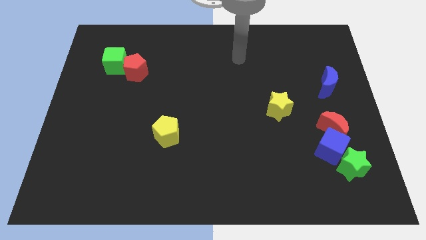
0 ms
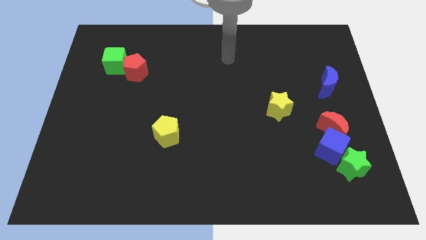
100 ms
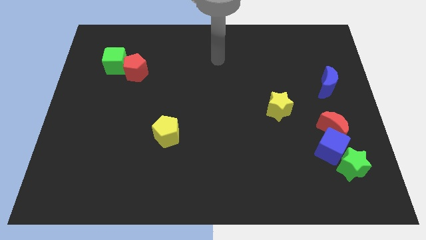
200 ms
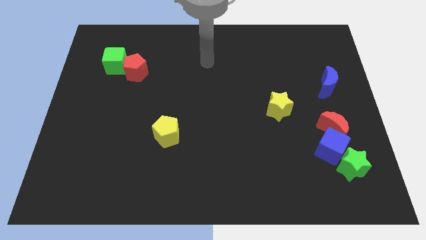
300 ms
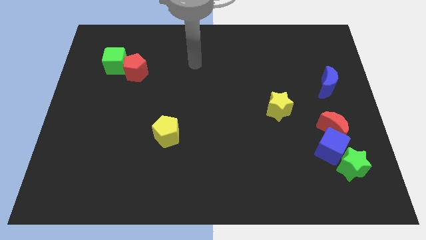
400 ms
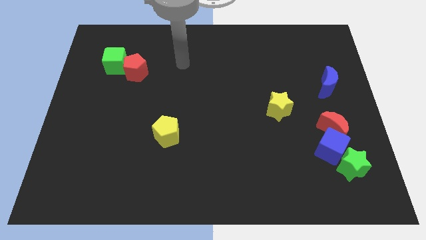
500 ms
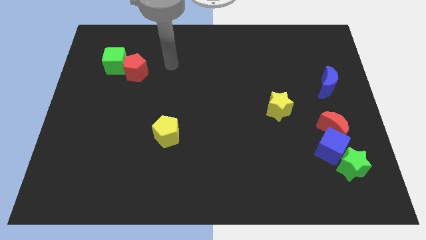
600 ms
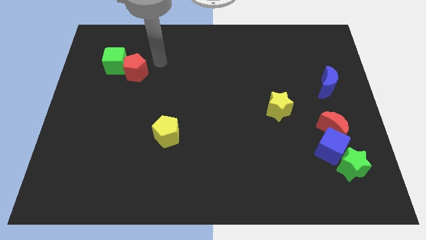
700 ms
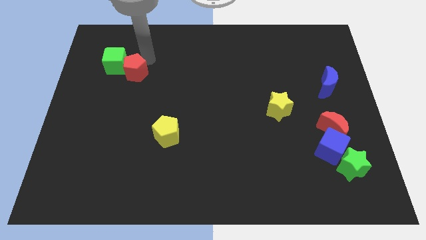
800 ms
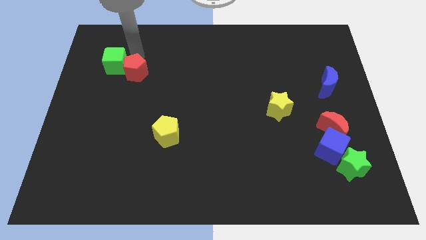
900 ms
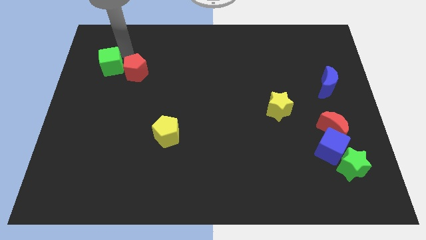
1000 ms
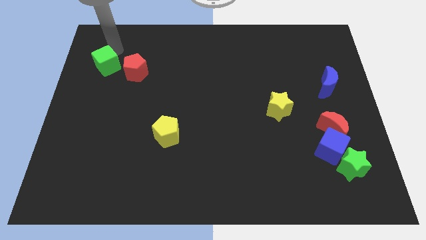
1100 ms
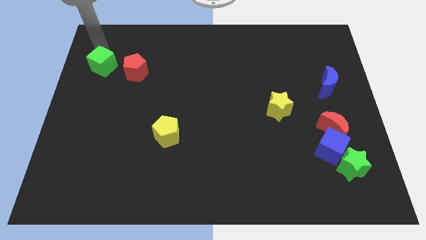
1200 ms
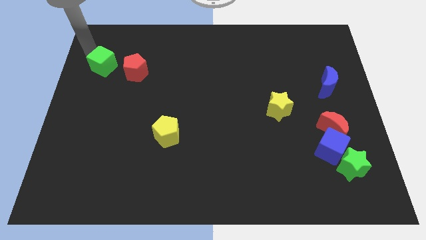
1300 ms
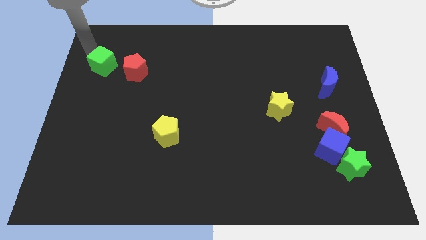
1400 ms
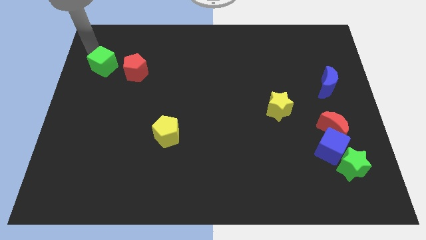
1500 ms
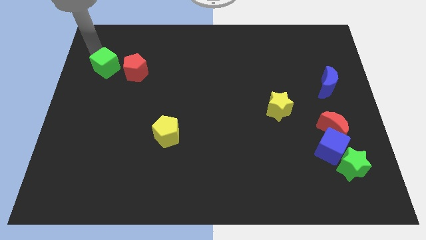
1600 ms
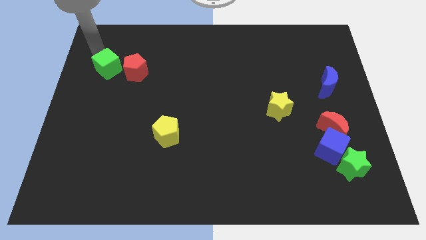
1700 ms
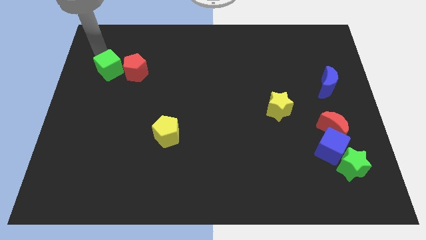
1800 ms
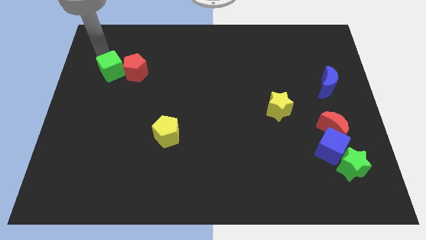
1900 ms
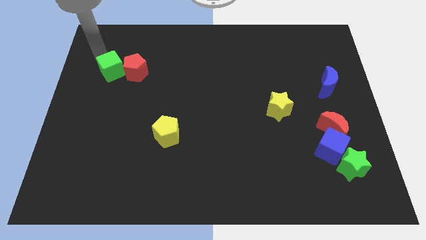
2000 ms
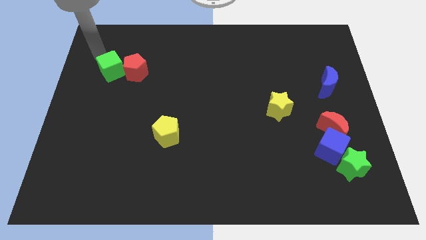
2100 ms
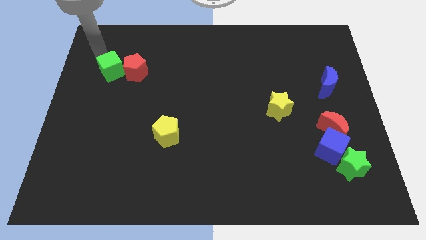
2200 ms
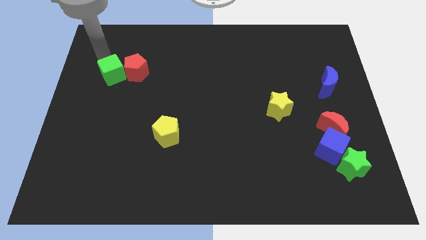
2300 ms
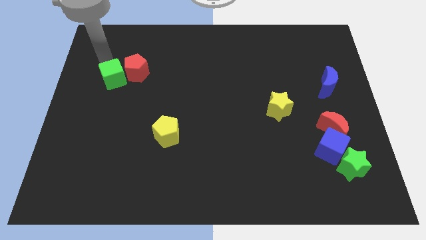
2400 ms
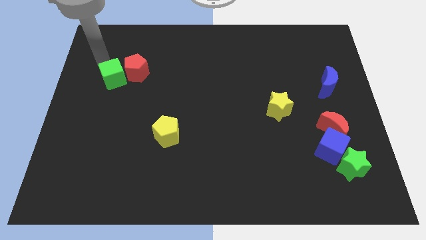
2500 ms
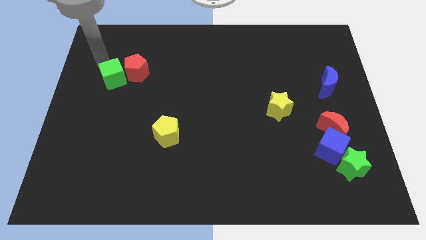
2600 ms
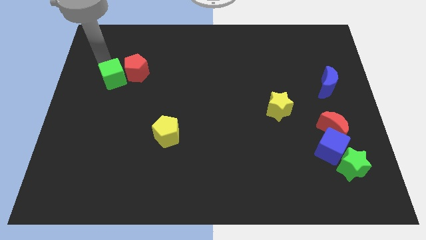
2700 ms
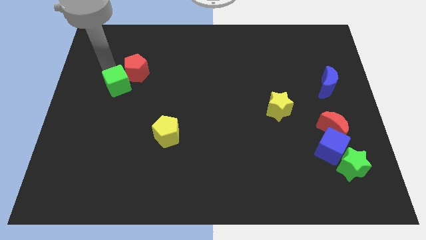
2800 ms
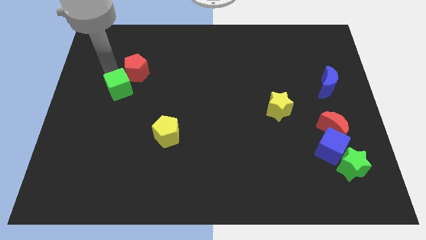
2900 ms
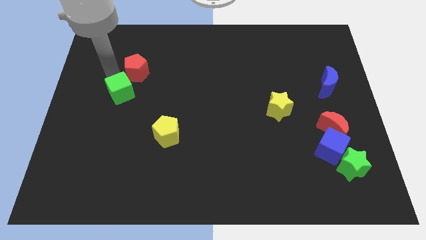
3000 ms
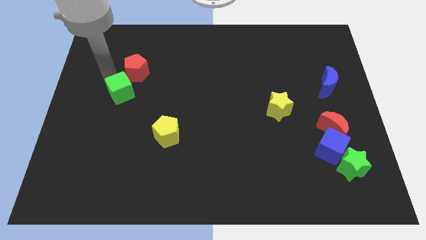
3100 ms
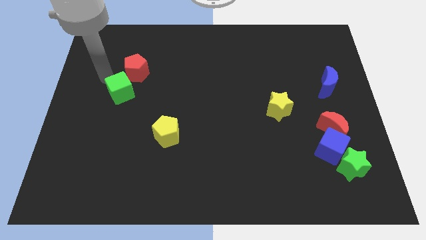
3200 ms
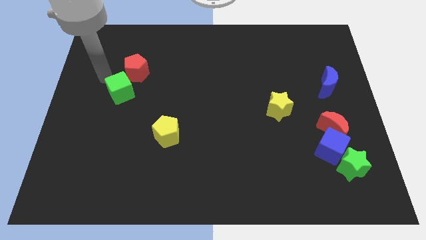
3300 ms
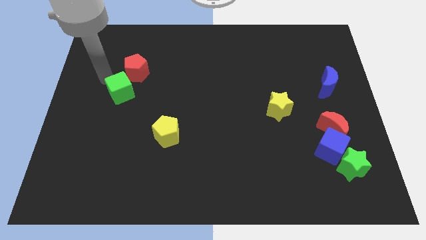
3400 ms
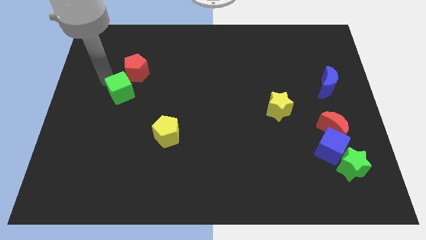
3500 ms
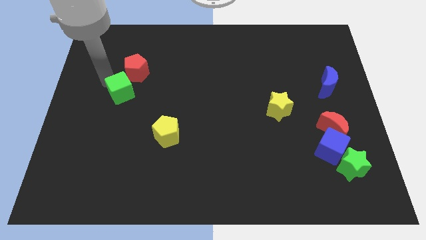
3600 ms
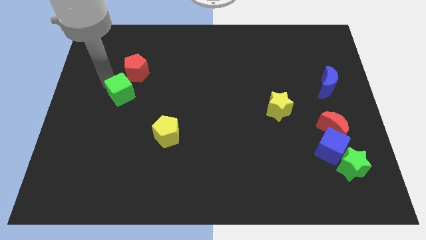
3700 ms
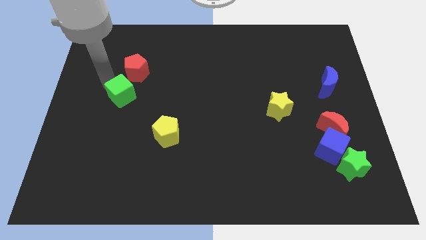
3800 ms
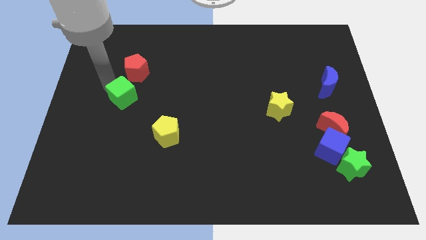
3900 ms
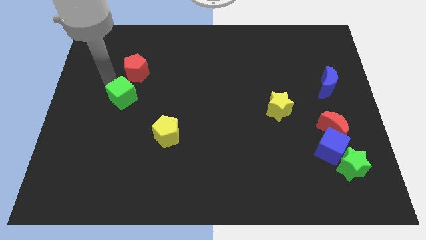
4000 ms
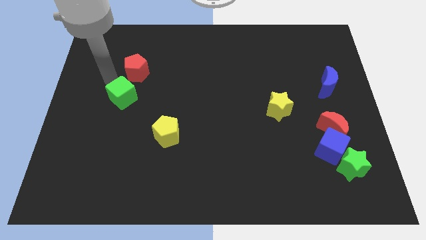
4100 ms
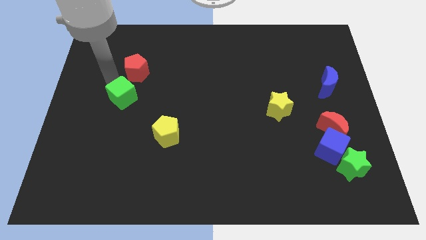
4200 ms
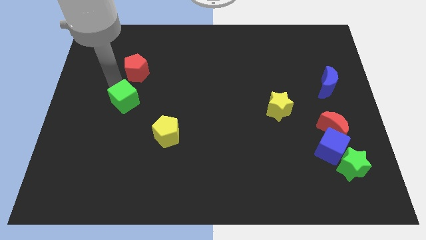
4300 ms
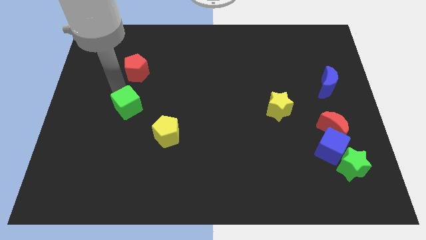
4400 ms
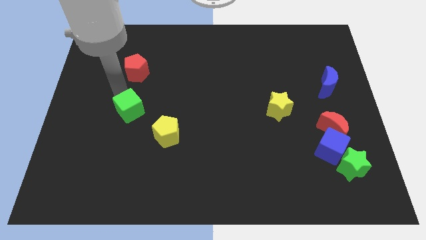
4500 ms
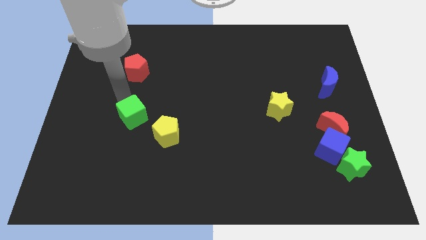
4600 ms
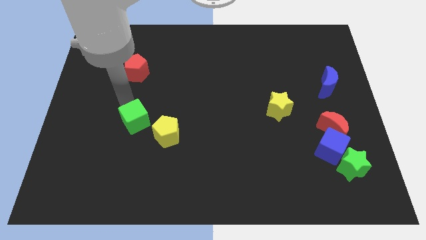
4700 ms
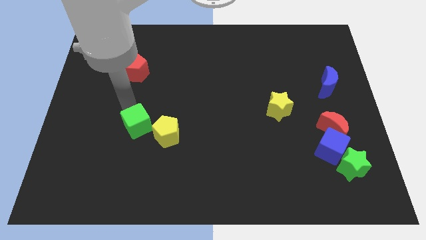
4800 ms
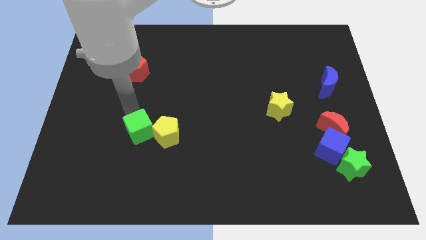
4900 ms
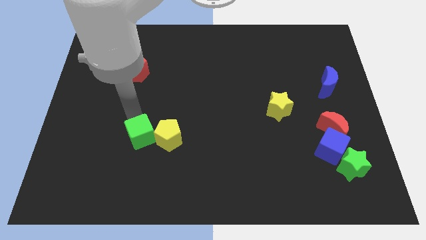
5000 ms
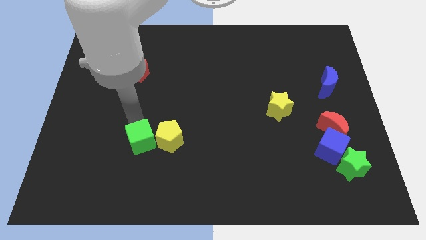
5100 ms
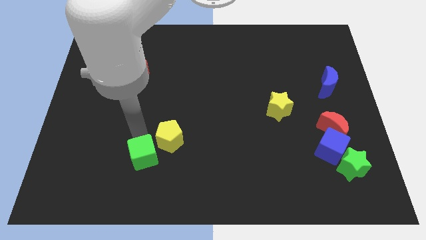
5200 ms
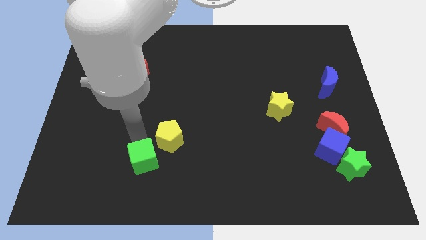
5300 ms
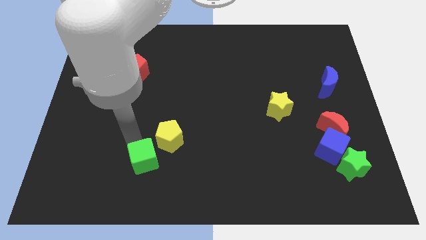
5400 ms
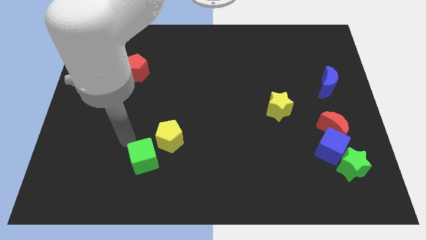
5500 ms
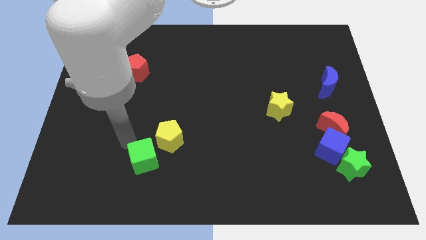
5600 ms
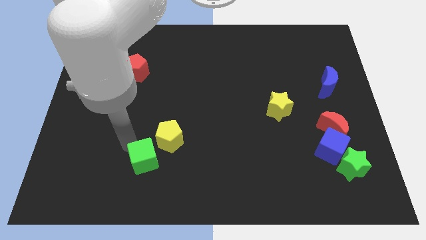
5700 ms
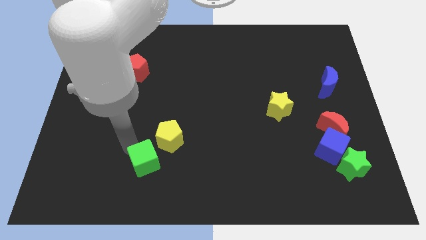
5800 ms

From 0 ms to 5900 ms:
slide the green cube to the bottom side of the yellow pentagon

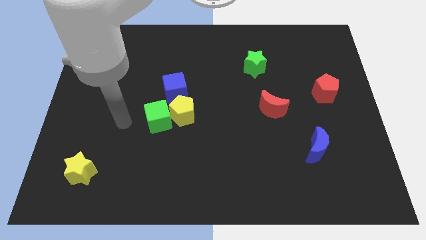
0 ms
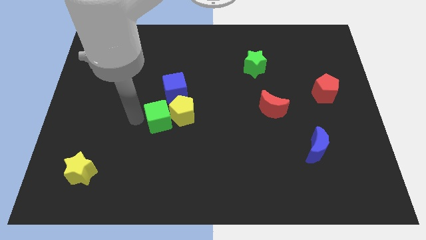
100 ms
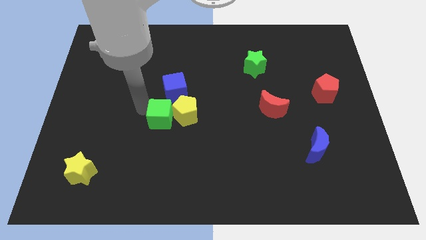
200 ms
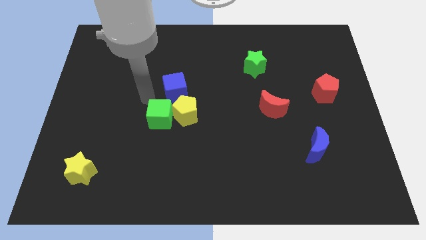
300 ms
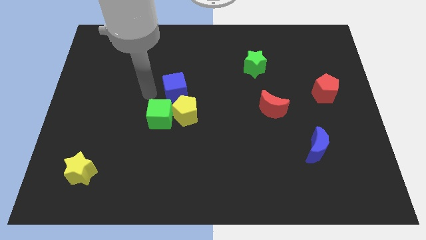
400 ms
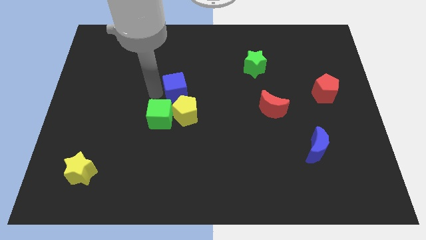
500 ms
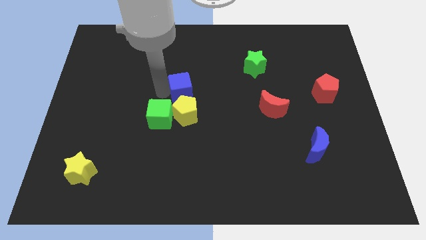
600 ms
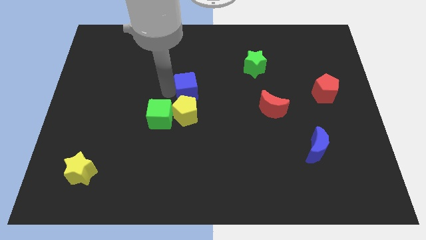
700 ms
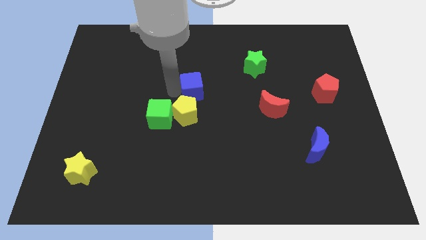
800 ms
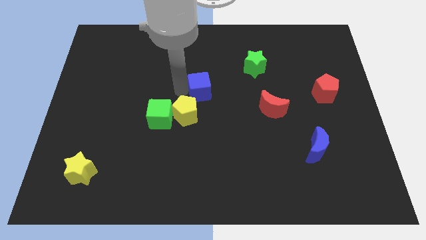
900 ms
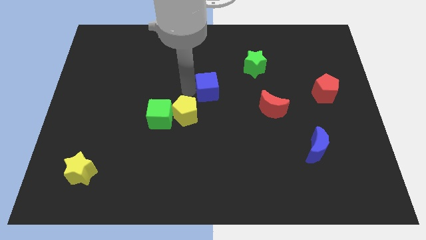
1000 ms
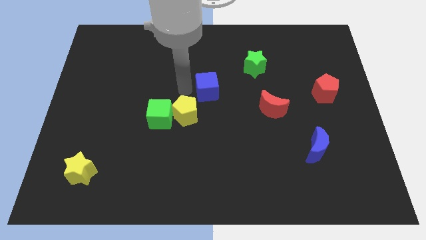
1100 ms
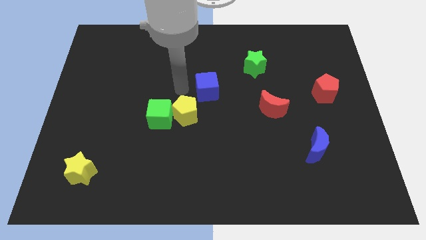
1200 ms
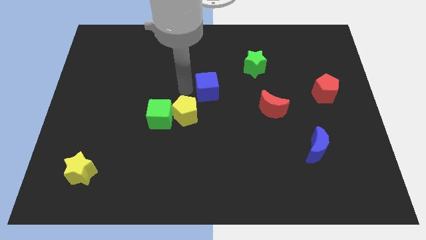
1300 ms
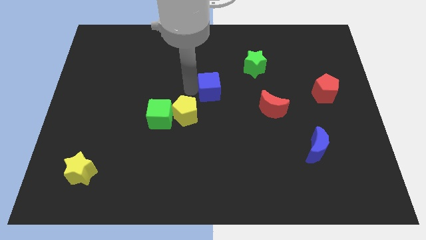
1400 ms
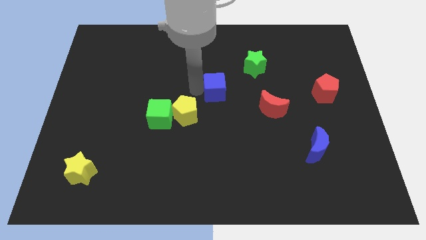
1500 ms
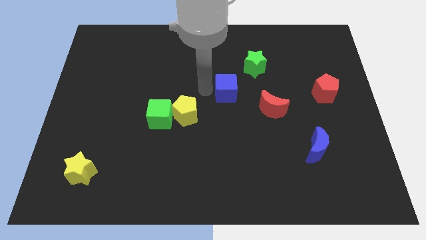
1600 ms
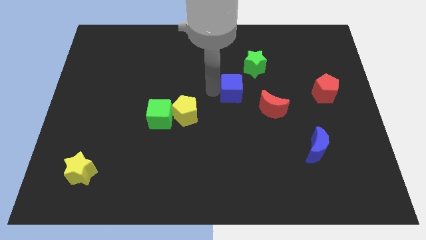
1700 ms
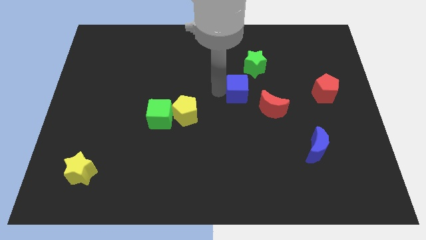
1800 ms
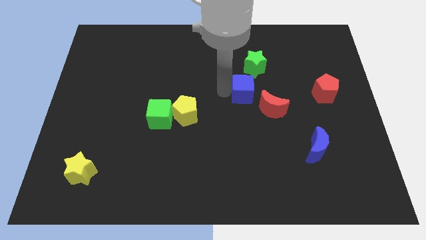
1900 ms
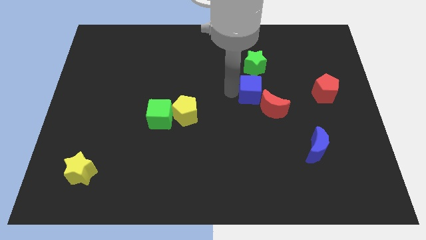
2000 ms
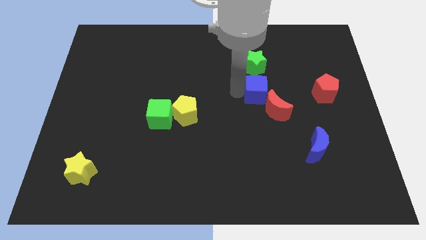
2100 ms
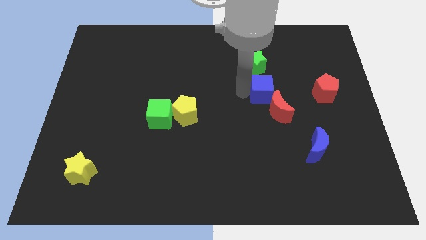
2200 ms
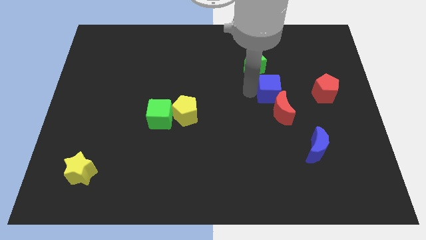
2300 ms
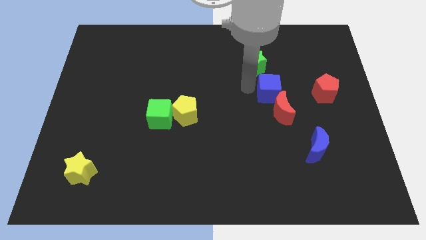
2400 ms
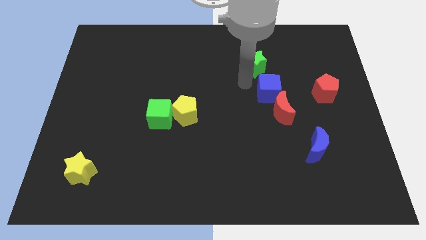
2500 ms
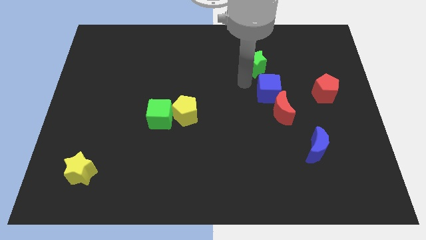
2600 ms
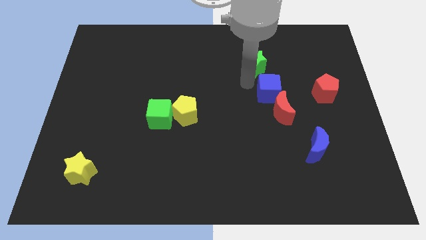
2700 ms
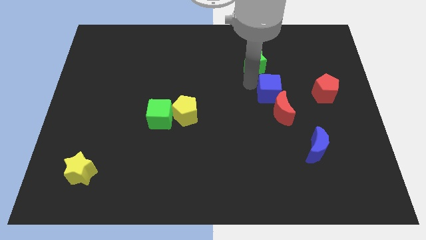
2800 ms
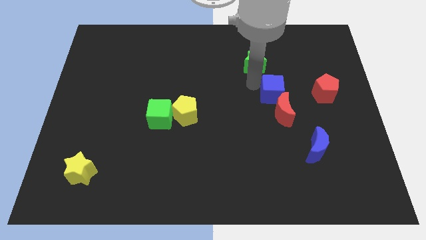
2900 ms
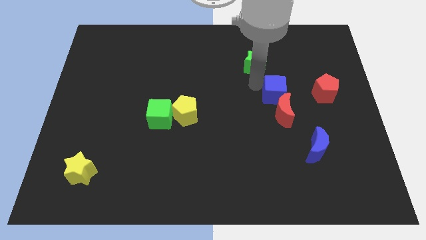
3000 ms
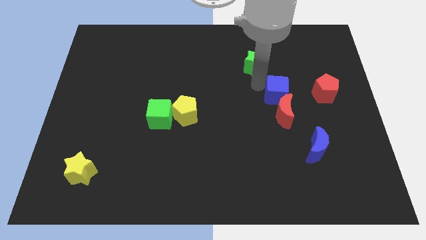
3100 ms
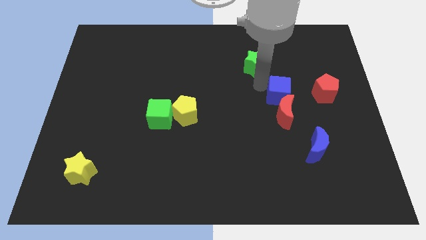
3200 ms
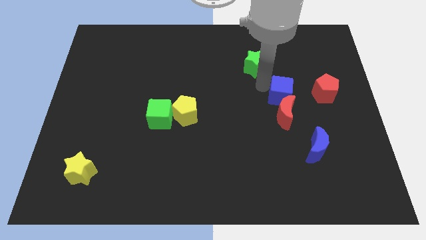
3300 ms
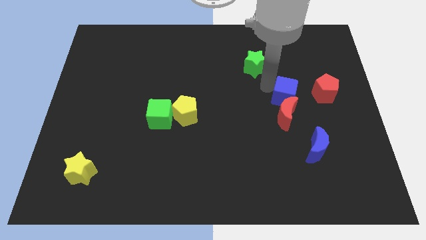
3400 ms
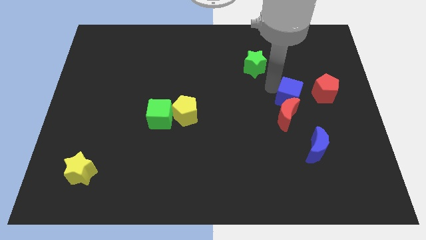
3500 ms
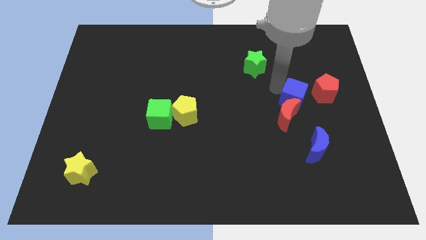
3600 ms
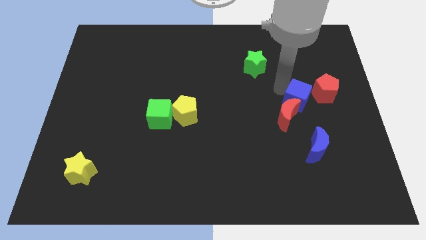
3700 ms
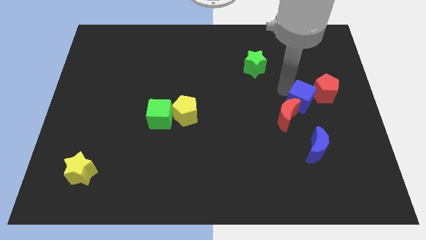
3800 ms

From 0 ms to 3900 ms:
put the blue cube to the right of the red moon
